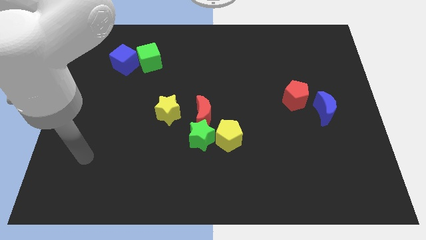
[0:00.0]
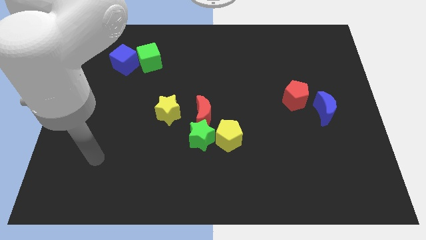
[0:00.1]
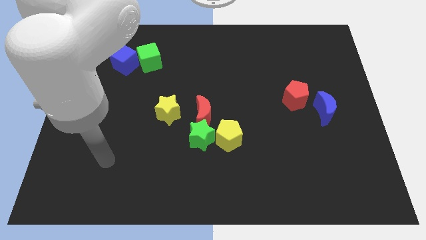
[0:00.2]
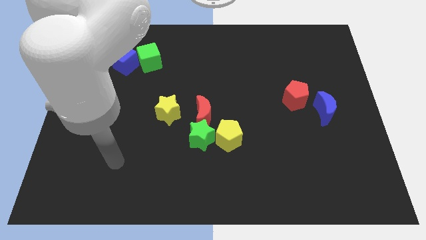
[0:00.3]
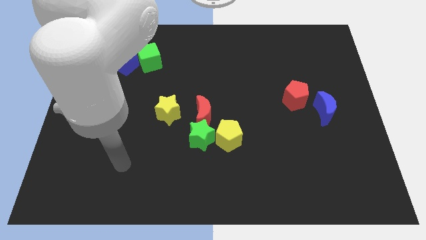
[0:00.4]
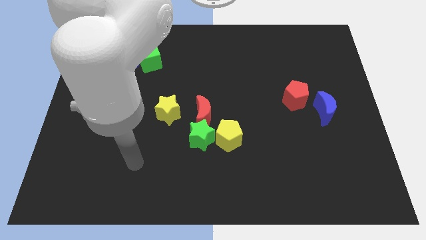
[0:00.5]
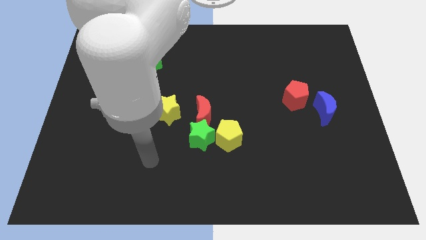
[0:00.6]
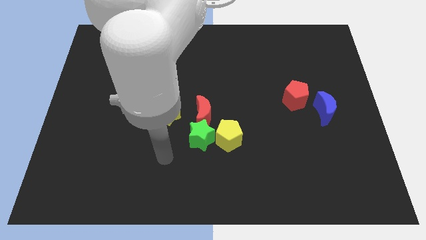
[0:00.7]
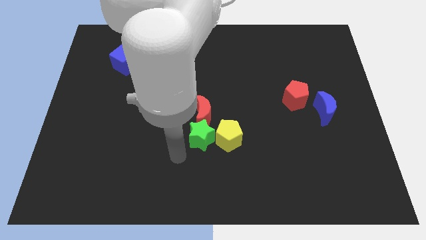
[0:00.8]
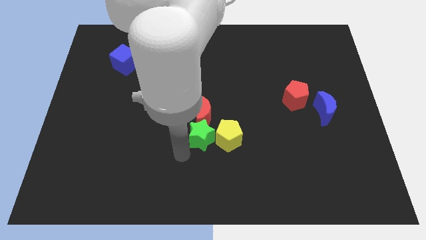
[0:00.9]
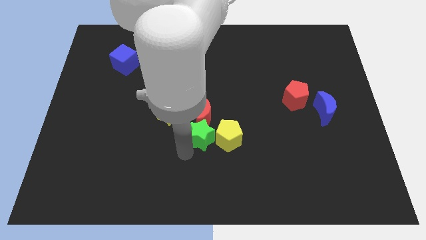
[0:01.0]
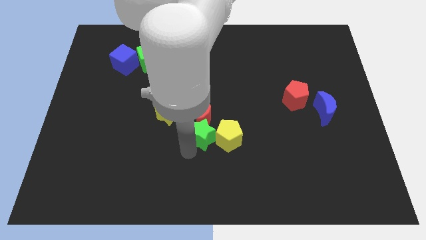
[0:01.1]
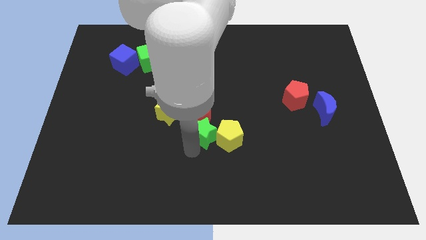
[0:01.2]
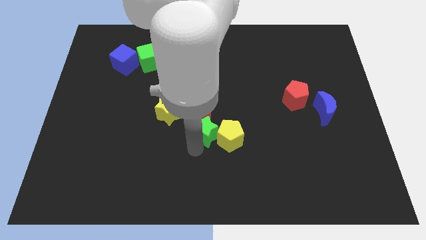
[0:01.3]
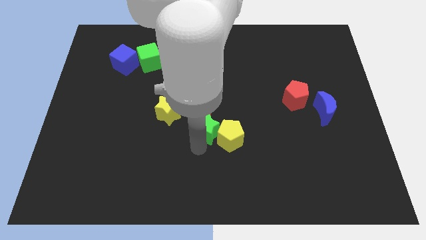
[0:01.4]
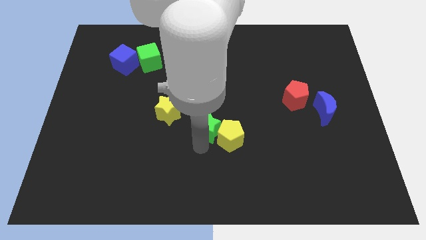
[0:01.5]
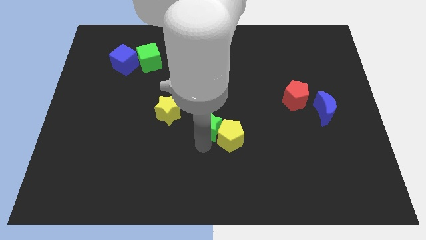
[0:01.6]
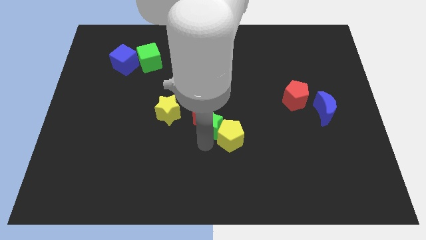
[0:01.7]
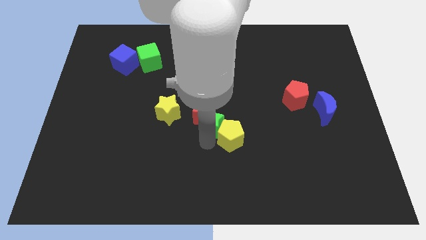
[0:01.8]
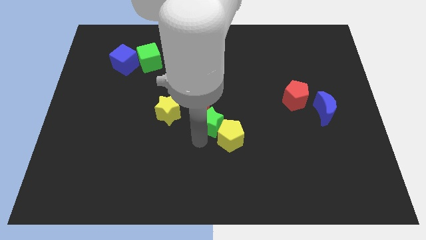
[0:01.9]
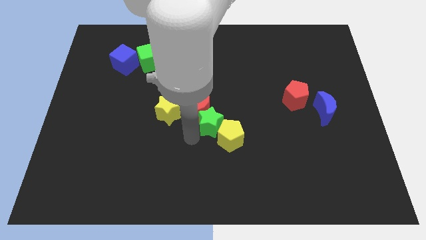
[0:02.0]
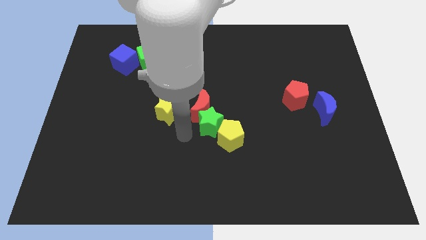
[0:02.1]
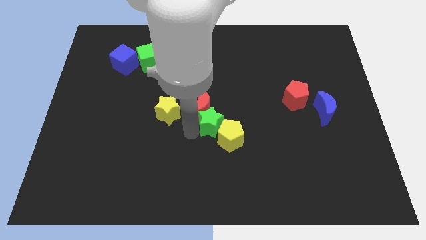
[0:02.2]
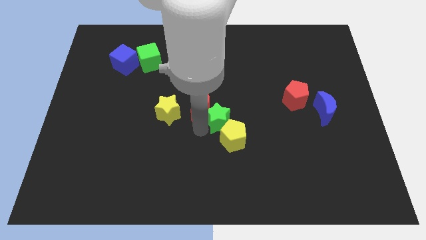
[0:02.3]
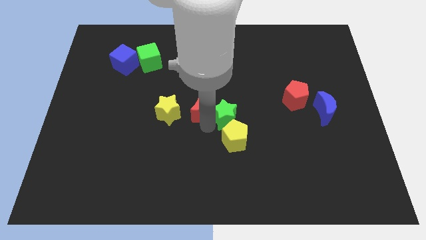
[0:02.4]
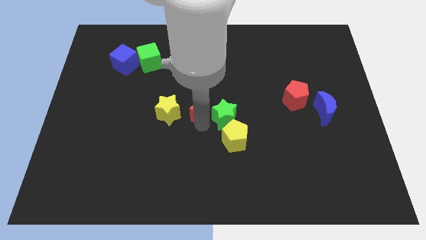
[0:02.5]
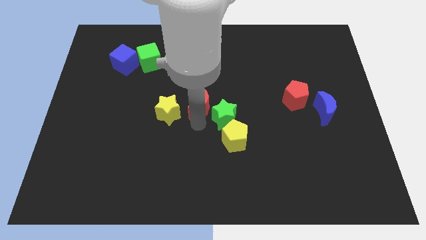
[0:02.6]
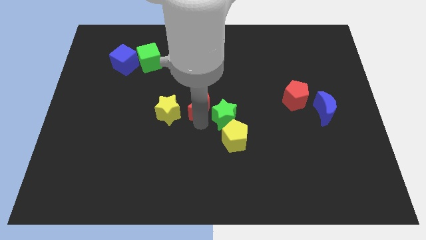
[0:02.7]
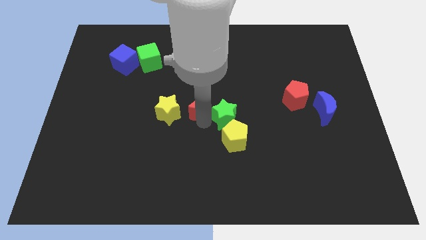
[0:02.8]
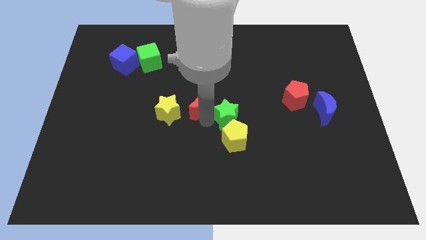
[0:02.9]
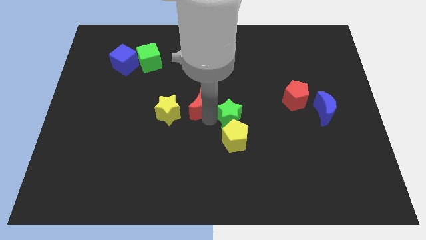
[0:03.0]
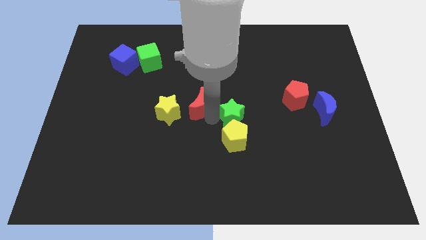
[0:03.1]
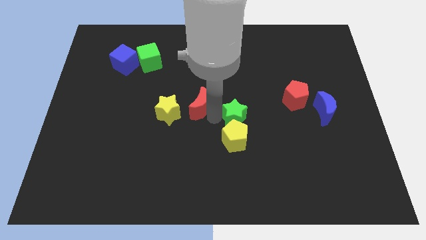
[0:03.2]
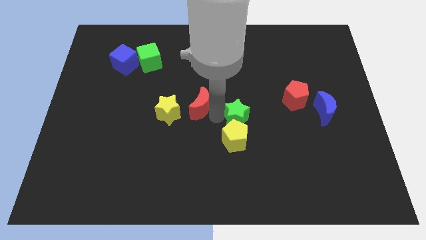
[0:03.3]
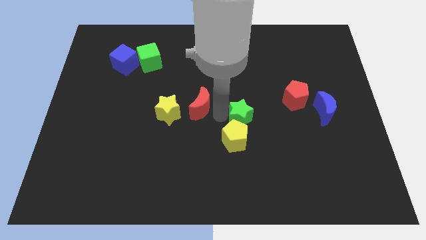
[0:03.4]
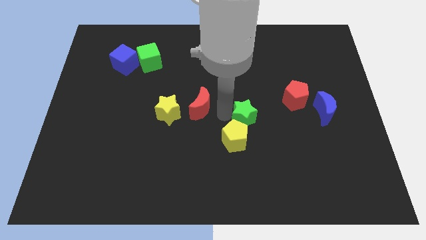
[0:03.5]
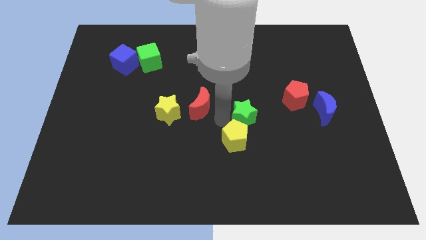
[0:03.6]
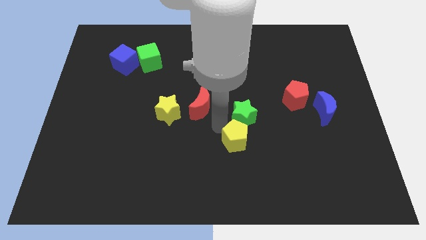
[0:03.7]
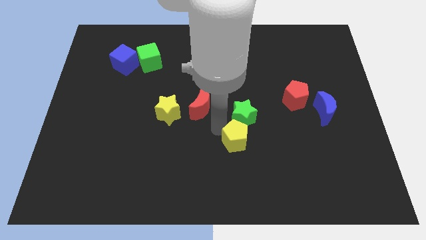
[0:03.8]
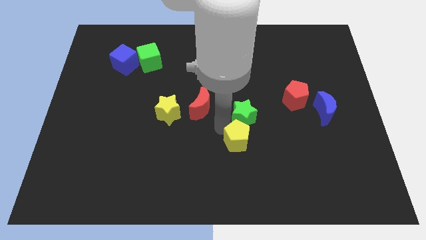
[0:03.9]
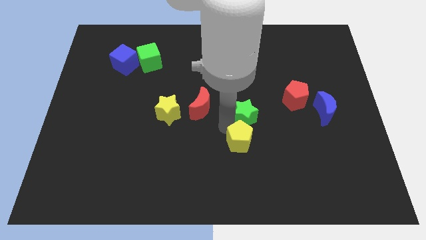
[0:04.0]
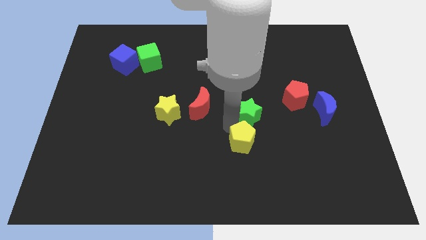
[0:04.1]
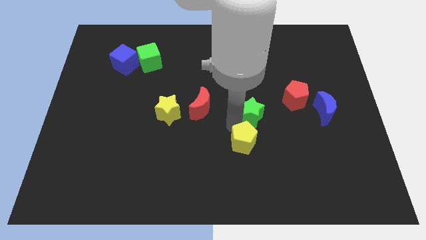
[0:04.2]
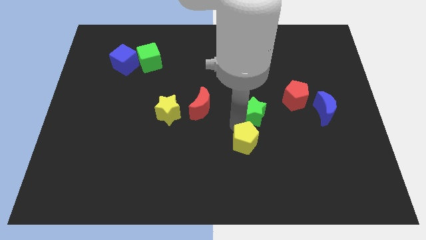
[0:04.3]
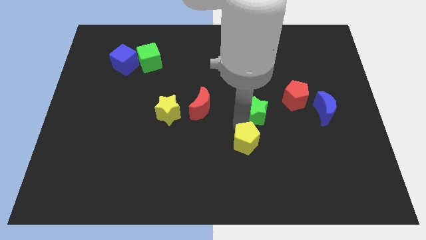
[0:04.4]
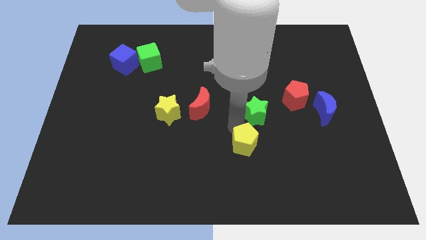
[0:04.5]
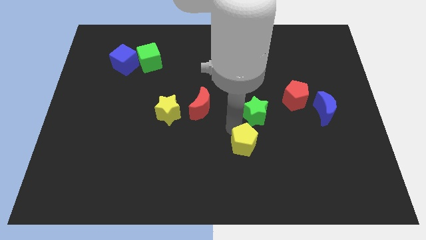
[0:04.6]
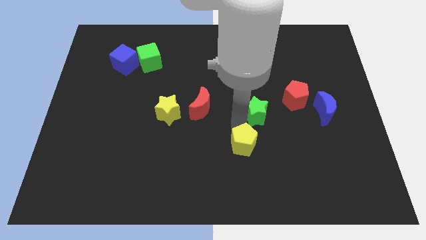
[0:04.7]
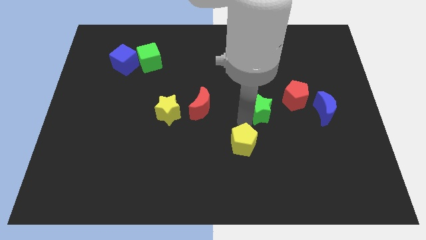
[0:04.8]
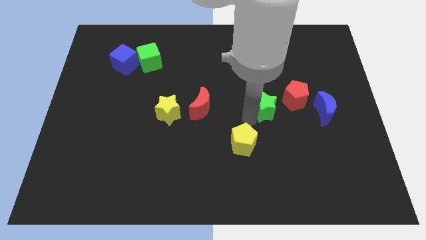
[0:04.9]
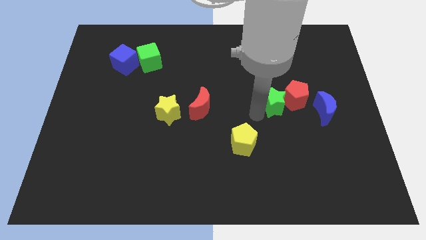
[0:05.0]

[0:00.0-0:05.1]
move the green star towards the red pentagon

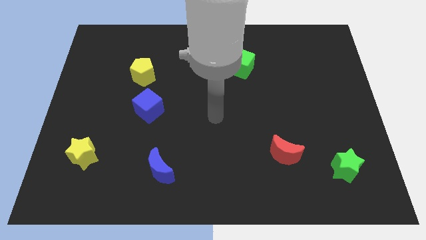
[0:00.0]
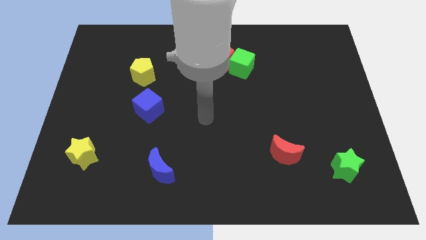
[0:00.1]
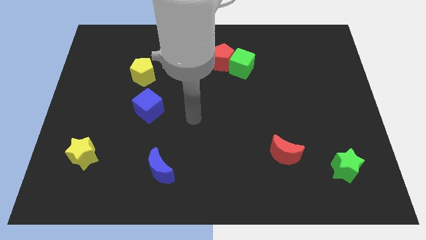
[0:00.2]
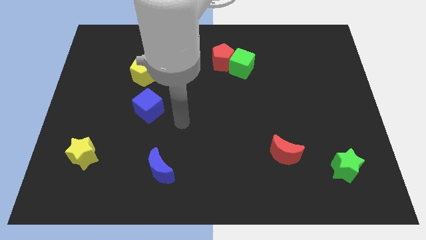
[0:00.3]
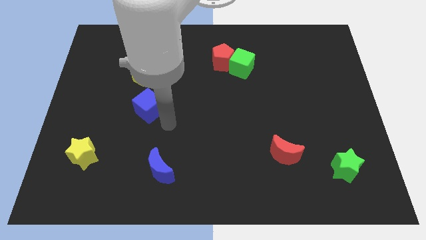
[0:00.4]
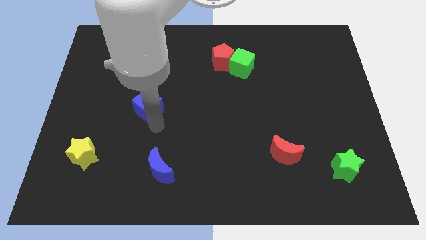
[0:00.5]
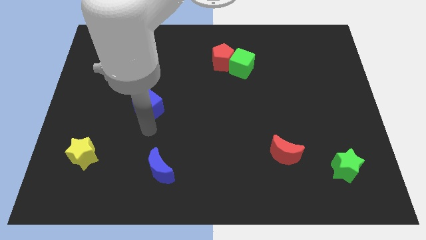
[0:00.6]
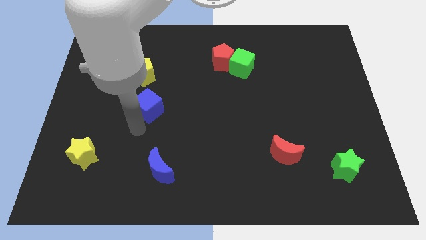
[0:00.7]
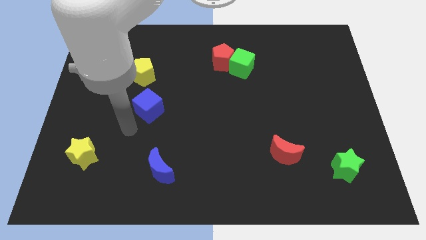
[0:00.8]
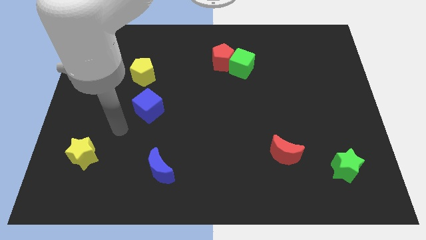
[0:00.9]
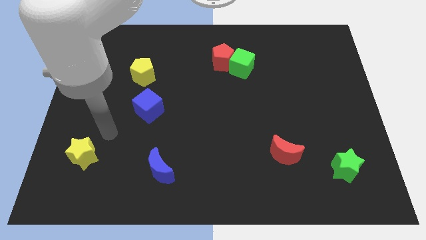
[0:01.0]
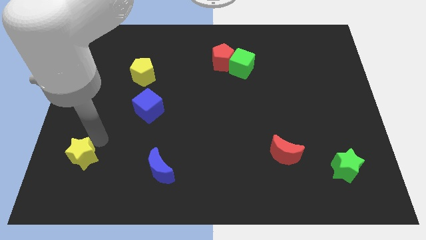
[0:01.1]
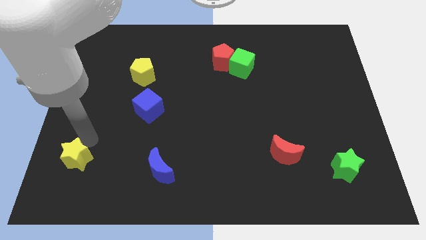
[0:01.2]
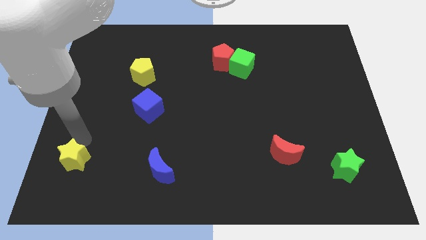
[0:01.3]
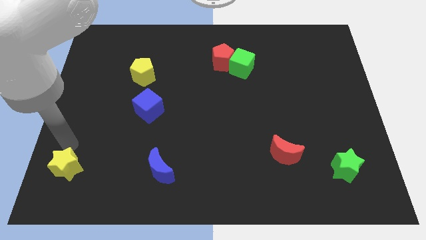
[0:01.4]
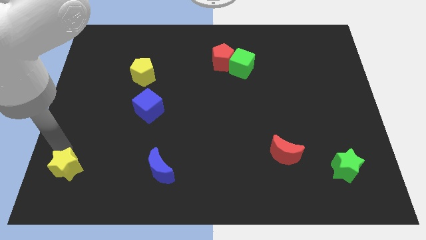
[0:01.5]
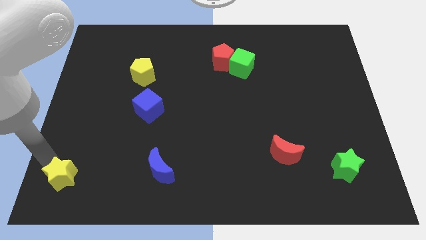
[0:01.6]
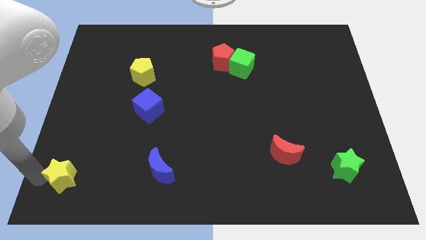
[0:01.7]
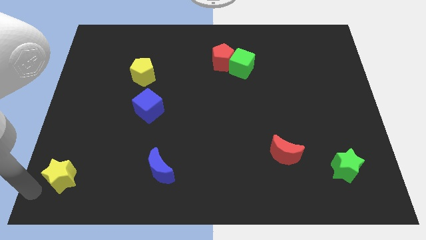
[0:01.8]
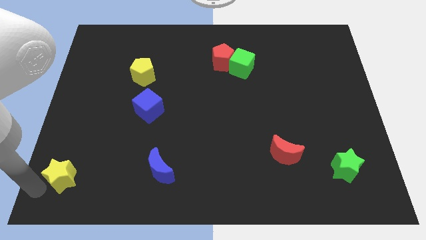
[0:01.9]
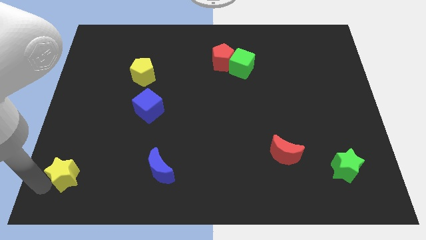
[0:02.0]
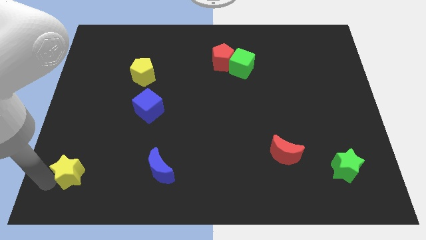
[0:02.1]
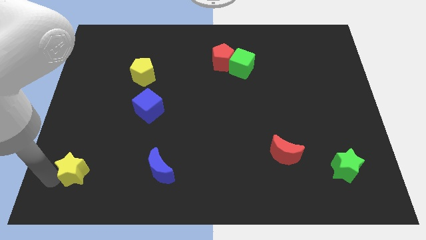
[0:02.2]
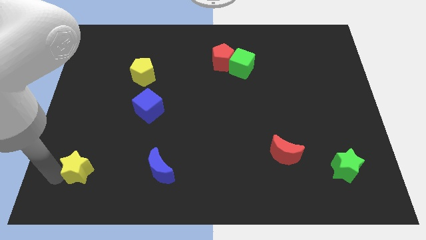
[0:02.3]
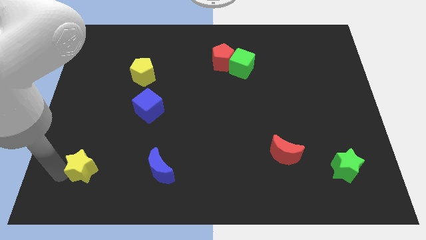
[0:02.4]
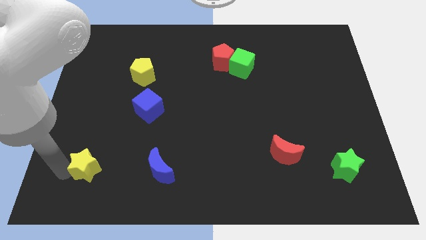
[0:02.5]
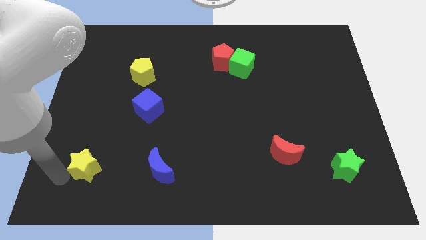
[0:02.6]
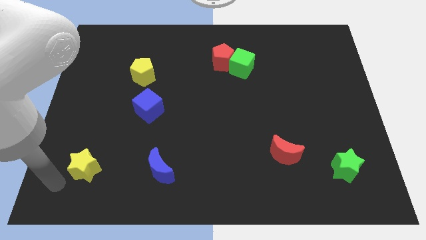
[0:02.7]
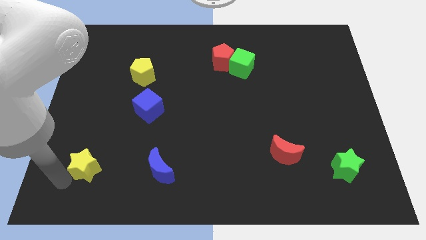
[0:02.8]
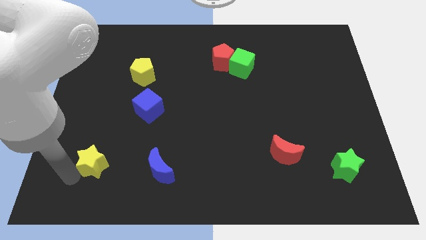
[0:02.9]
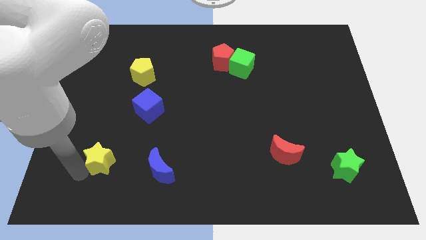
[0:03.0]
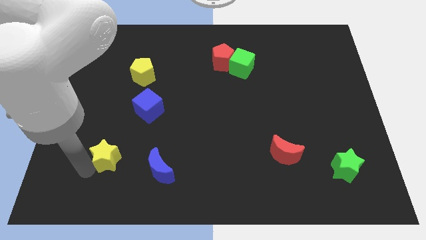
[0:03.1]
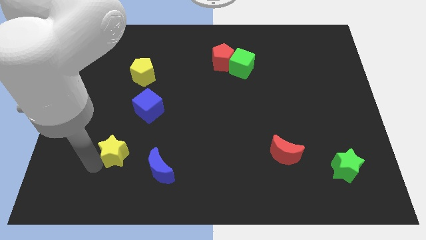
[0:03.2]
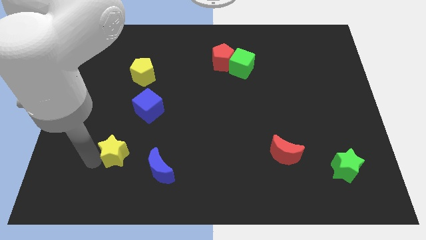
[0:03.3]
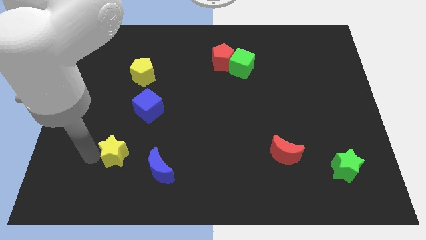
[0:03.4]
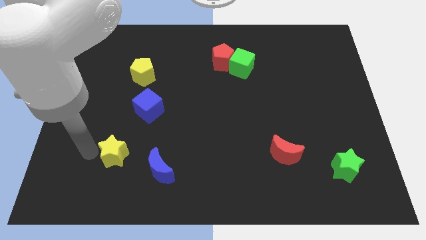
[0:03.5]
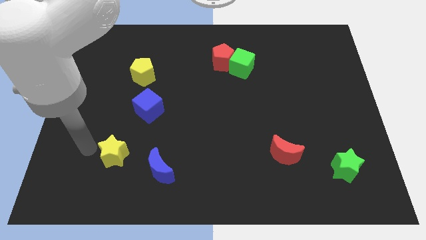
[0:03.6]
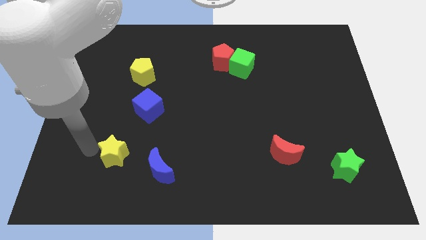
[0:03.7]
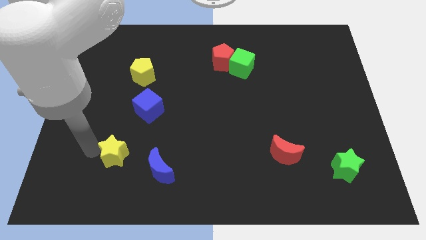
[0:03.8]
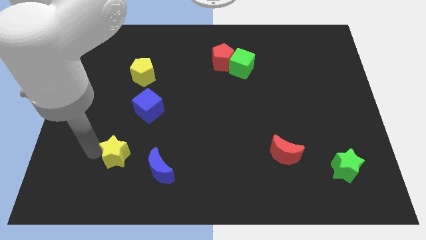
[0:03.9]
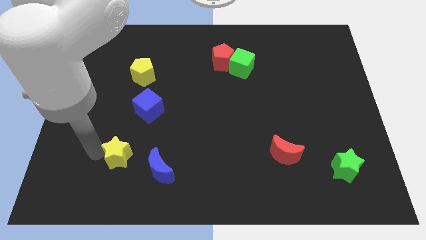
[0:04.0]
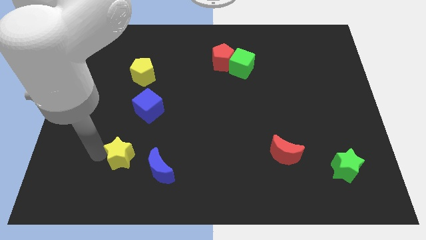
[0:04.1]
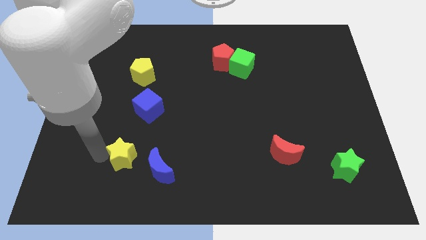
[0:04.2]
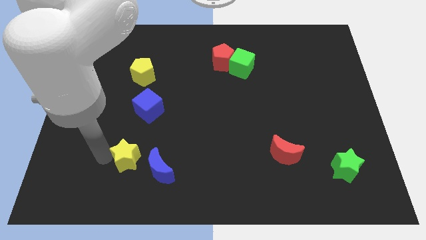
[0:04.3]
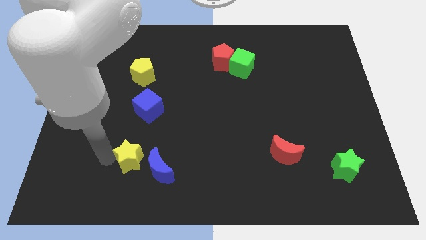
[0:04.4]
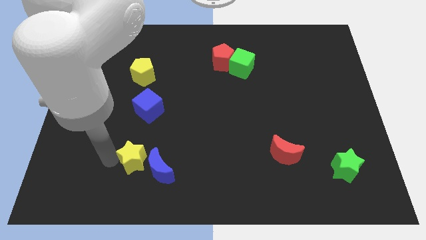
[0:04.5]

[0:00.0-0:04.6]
push the yellow star to the blue moon
